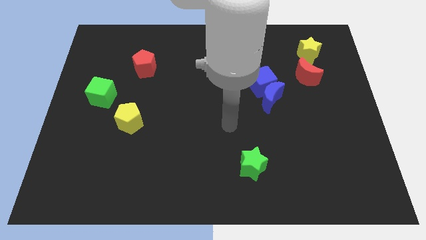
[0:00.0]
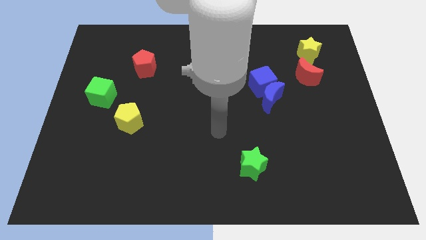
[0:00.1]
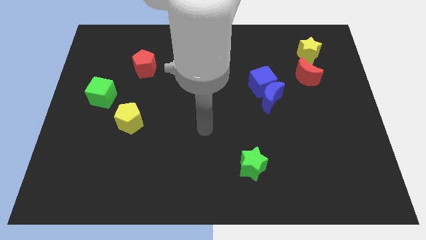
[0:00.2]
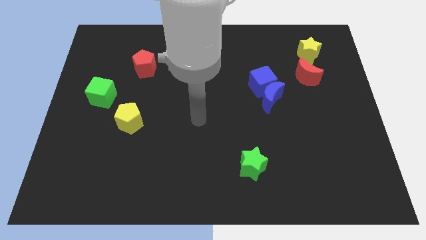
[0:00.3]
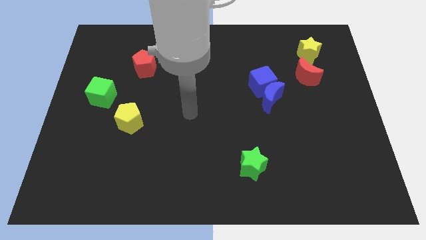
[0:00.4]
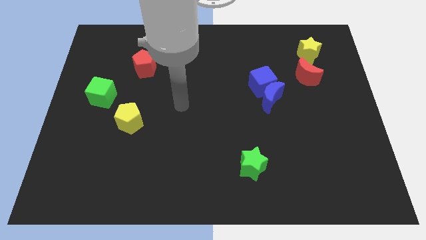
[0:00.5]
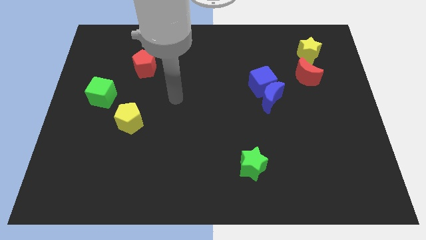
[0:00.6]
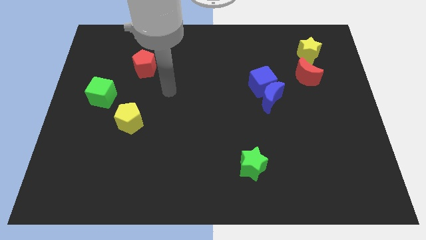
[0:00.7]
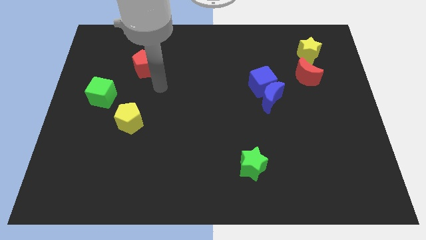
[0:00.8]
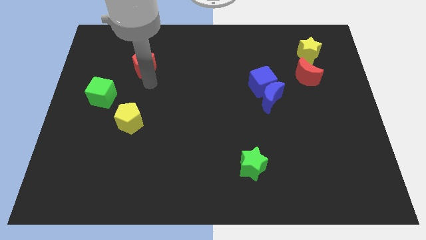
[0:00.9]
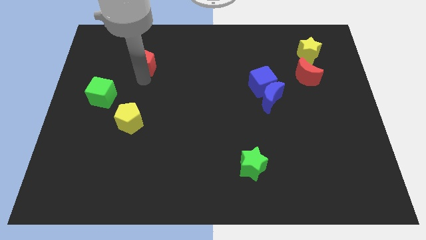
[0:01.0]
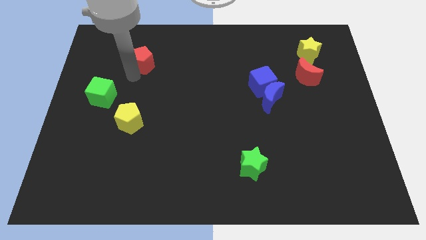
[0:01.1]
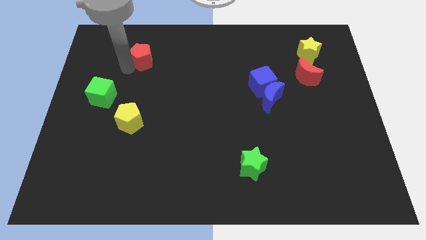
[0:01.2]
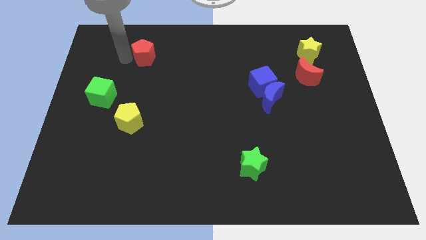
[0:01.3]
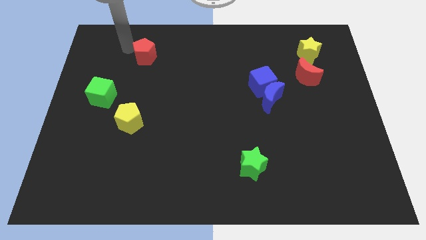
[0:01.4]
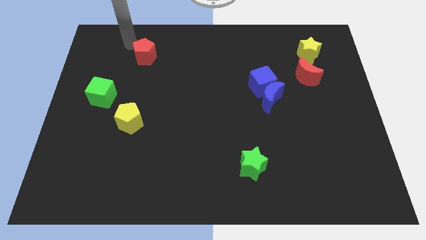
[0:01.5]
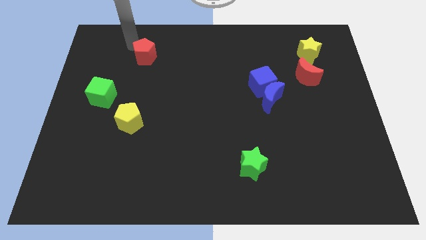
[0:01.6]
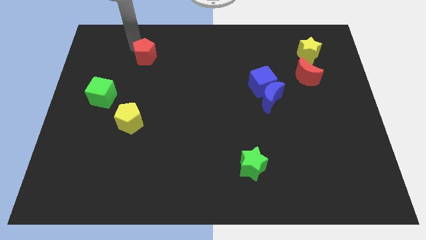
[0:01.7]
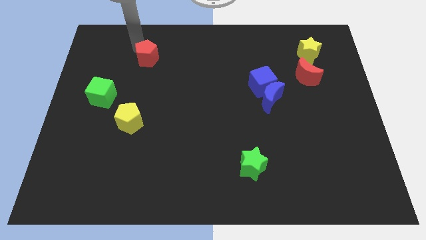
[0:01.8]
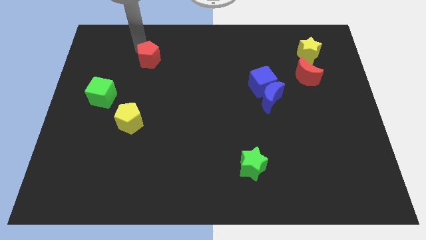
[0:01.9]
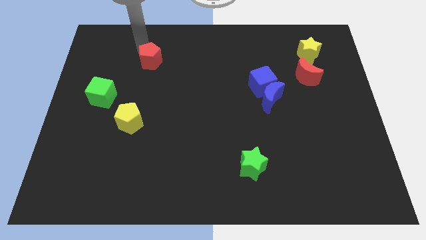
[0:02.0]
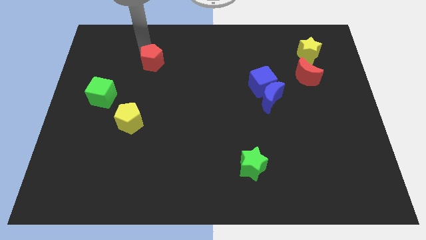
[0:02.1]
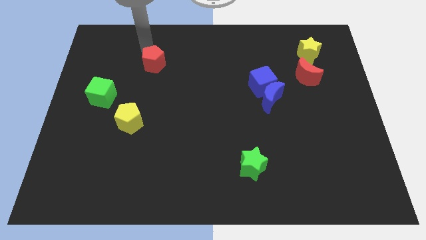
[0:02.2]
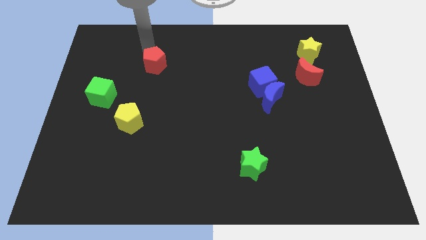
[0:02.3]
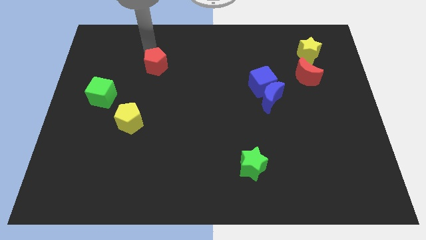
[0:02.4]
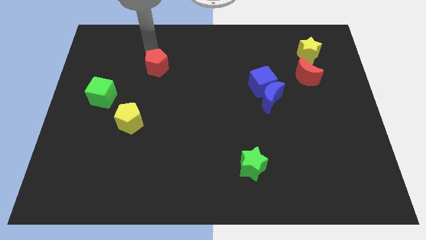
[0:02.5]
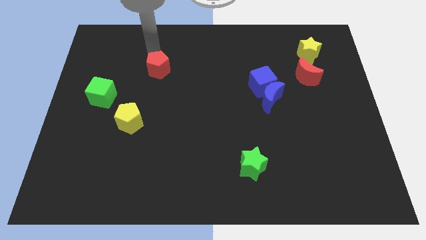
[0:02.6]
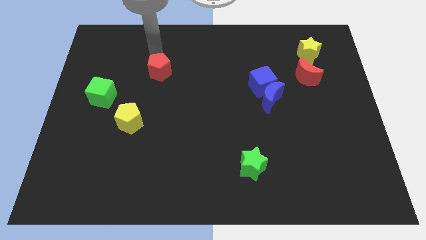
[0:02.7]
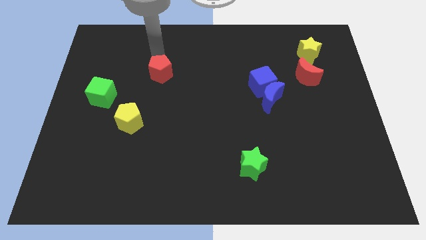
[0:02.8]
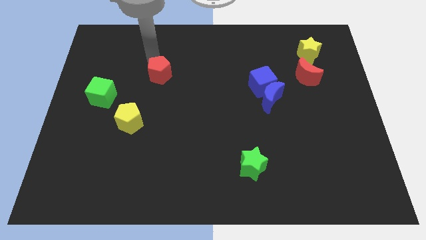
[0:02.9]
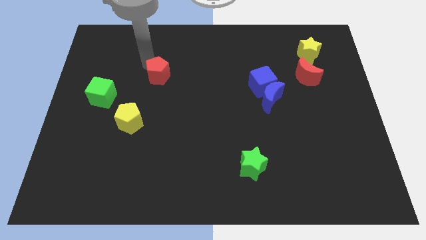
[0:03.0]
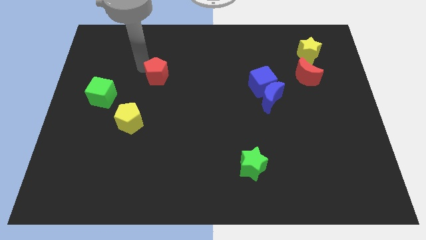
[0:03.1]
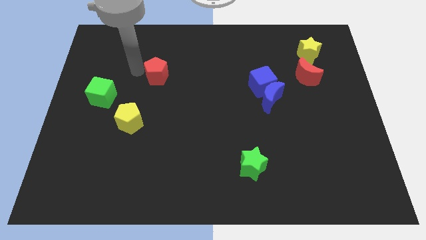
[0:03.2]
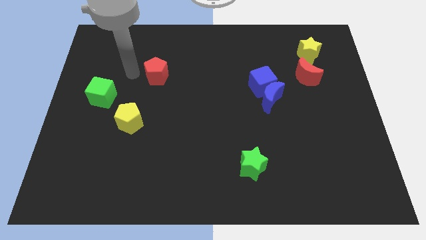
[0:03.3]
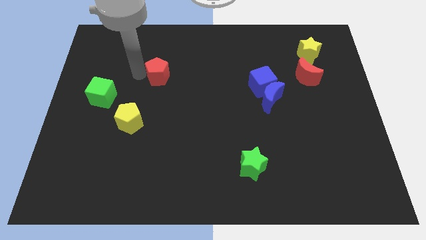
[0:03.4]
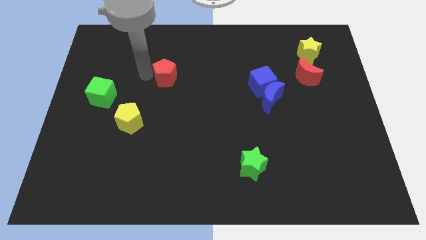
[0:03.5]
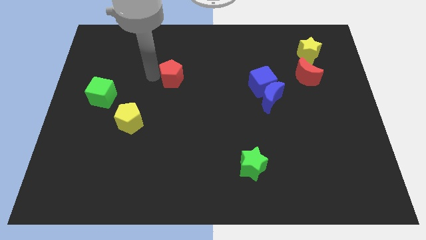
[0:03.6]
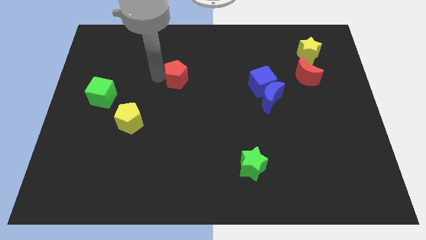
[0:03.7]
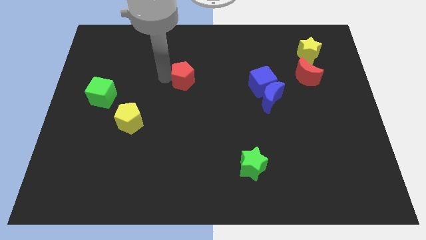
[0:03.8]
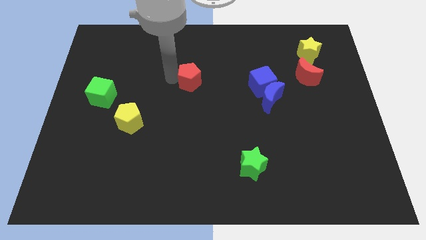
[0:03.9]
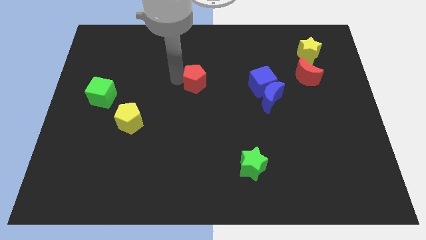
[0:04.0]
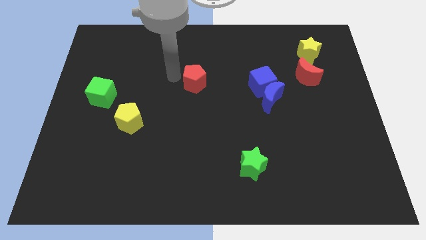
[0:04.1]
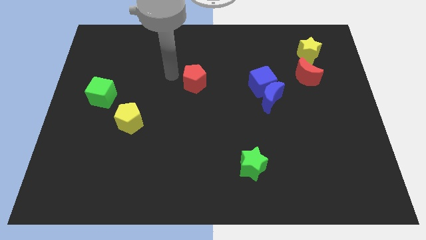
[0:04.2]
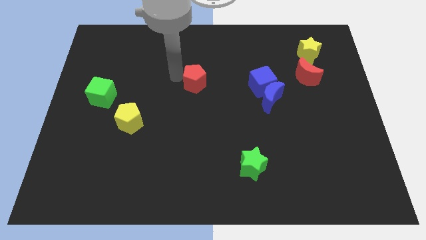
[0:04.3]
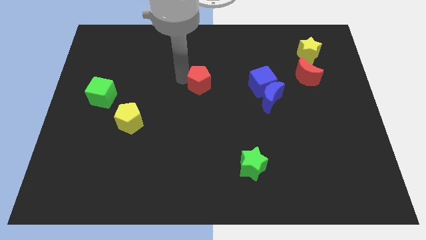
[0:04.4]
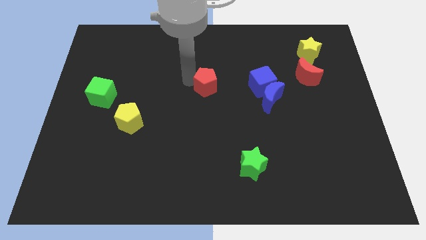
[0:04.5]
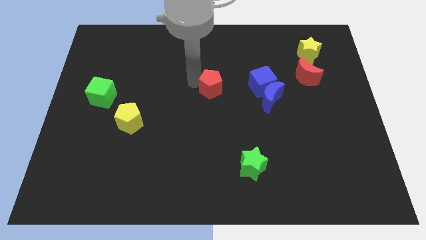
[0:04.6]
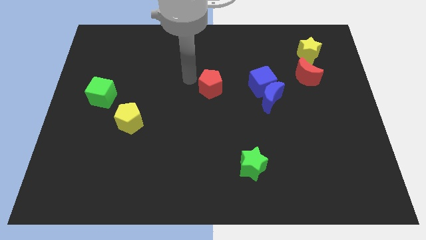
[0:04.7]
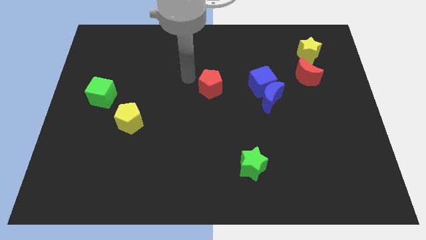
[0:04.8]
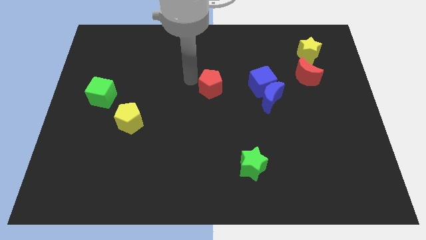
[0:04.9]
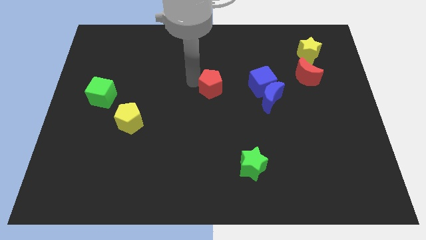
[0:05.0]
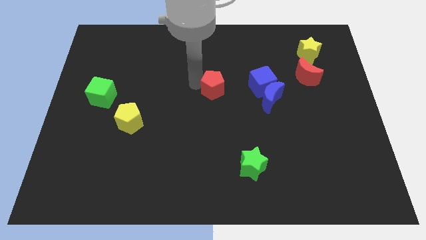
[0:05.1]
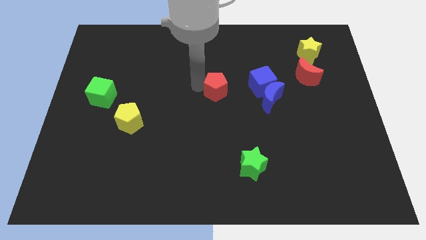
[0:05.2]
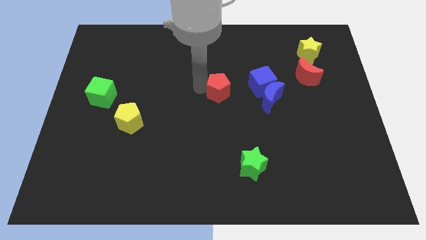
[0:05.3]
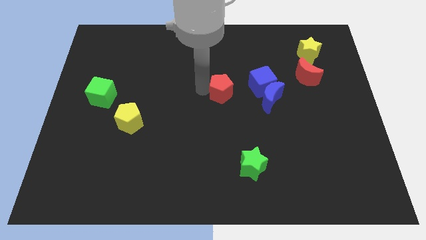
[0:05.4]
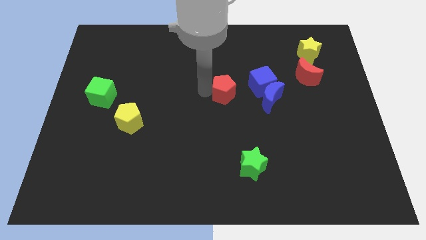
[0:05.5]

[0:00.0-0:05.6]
put the red pentagon to the bottom left side of the blue cube

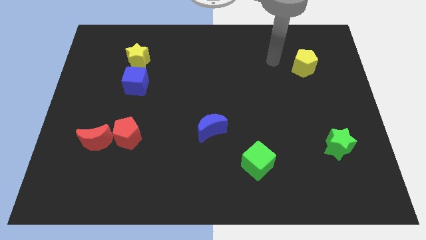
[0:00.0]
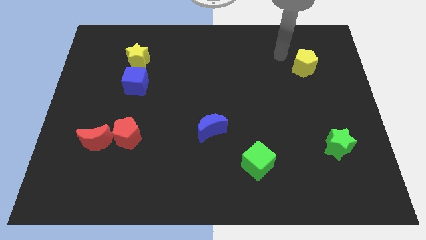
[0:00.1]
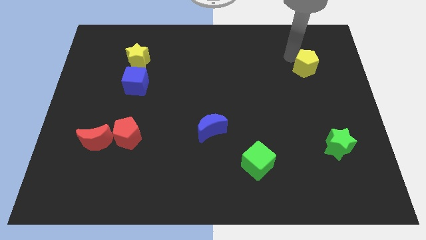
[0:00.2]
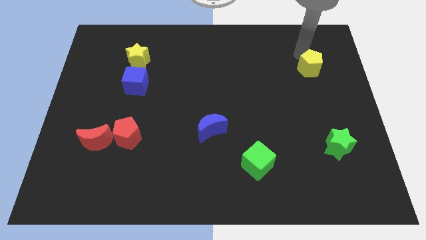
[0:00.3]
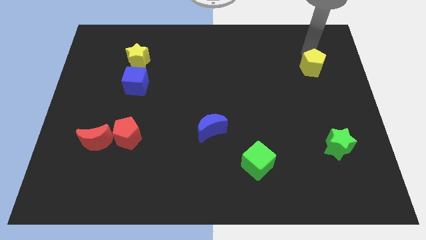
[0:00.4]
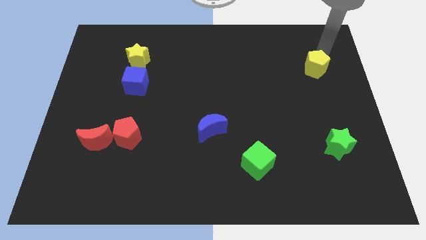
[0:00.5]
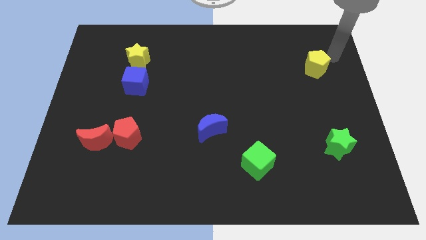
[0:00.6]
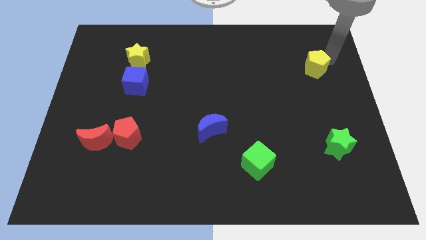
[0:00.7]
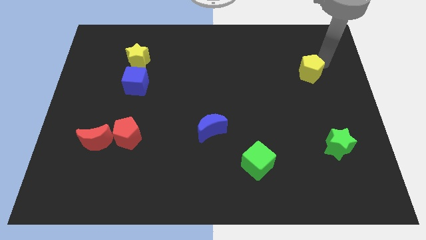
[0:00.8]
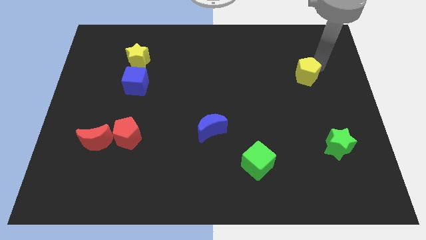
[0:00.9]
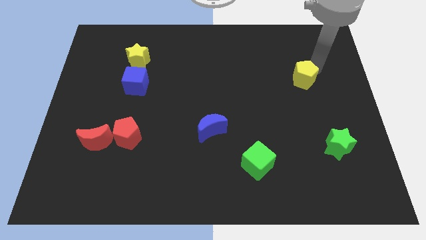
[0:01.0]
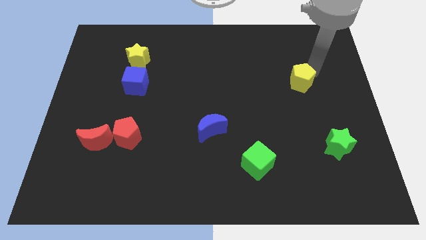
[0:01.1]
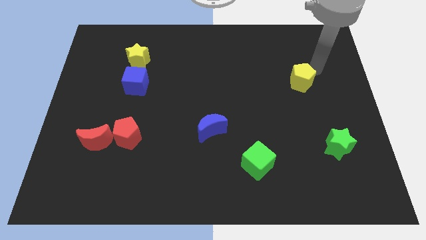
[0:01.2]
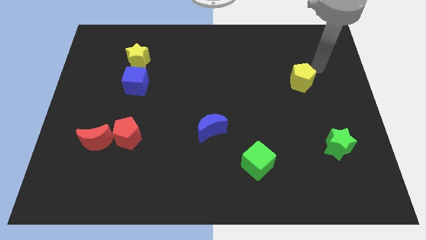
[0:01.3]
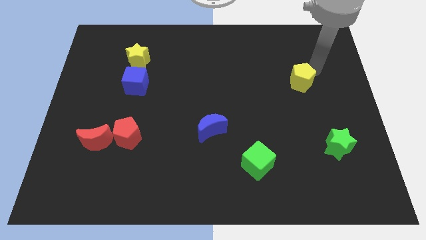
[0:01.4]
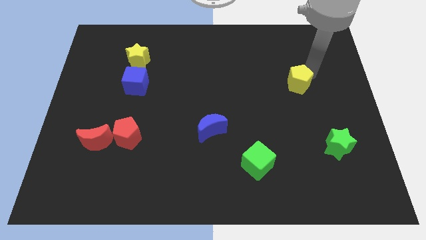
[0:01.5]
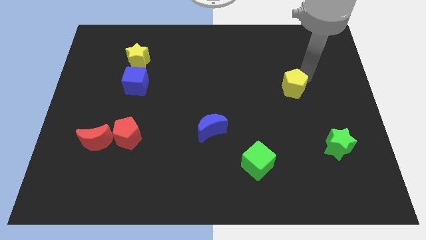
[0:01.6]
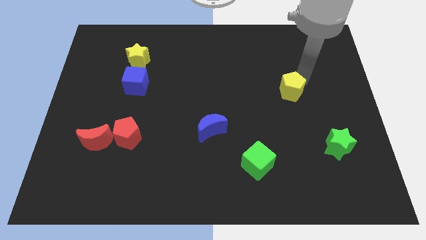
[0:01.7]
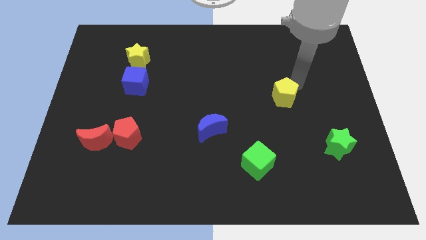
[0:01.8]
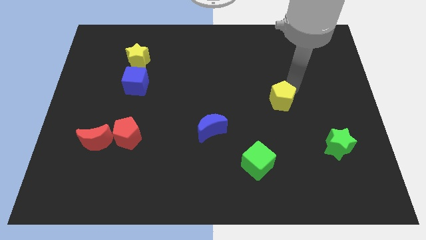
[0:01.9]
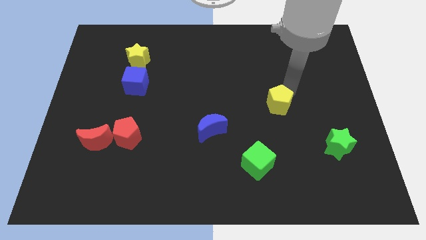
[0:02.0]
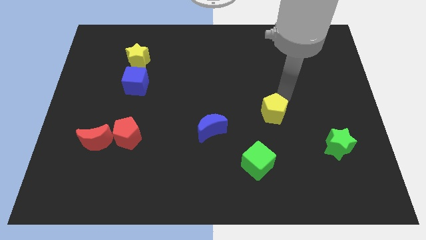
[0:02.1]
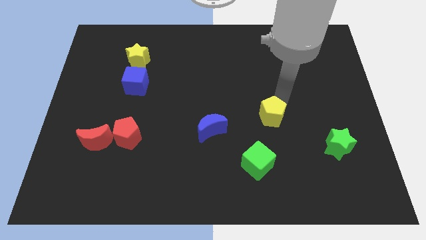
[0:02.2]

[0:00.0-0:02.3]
slide the yellow pentagon to the right side of the blue moon
